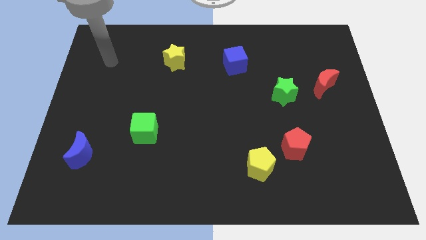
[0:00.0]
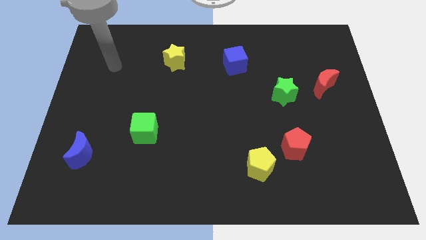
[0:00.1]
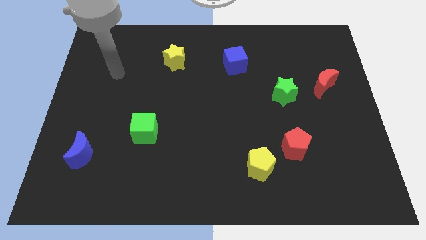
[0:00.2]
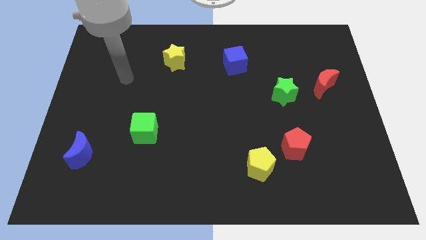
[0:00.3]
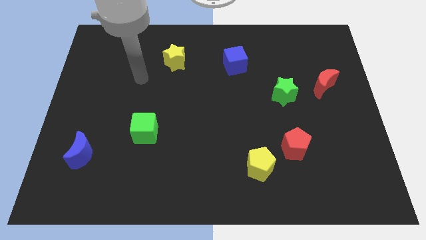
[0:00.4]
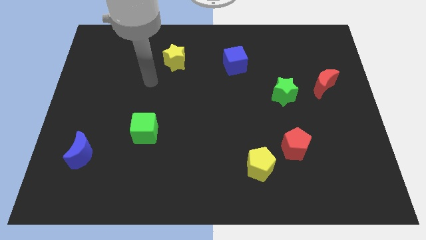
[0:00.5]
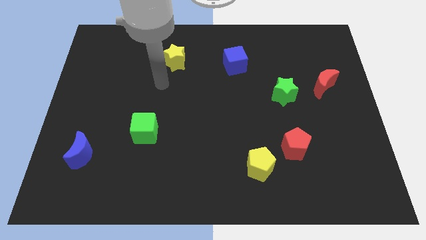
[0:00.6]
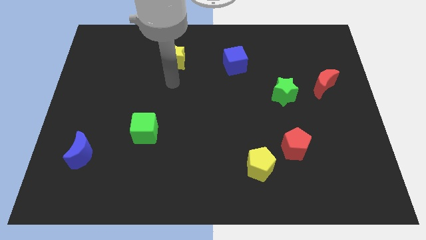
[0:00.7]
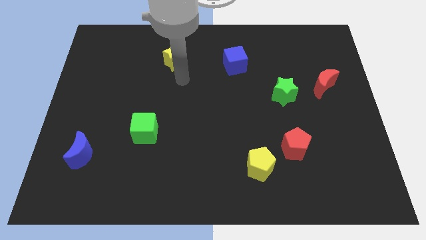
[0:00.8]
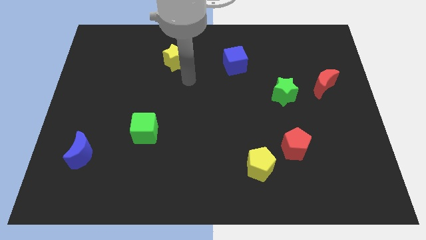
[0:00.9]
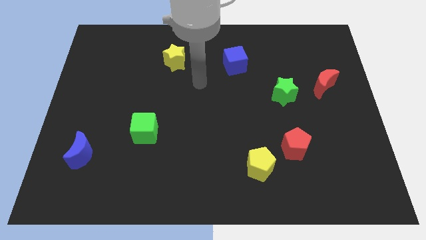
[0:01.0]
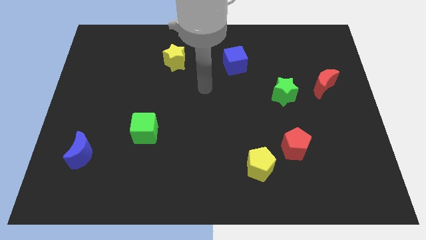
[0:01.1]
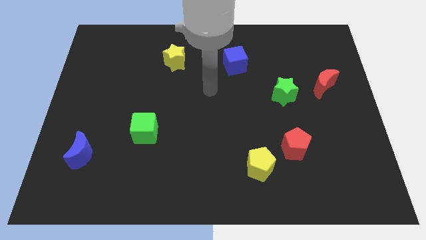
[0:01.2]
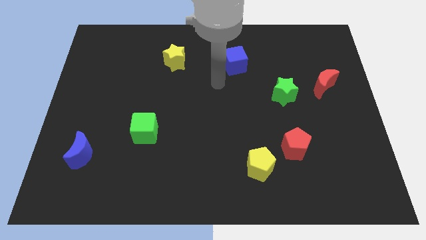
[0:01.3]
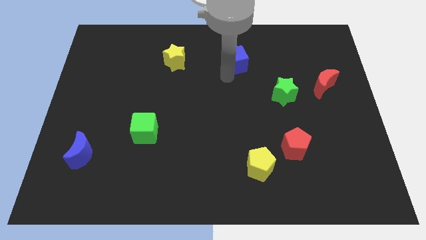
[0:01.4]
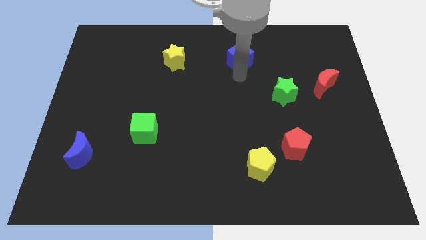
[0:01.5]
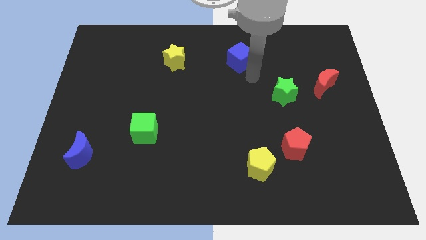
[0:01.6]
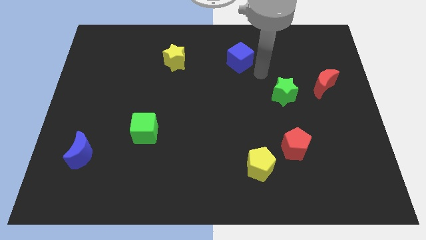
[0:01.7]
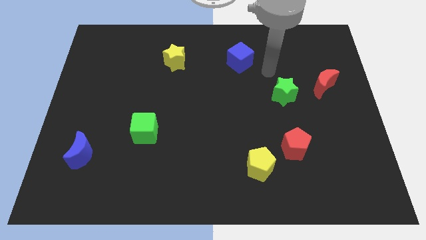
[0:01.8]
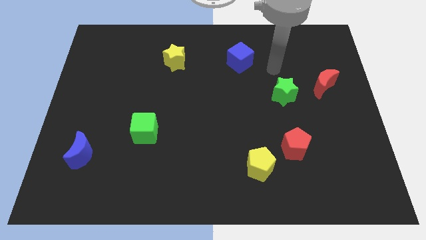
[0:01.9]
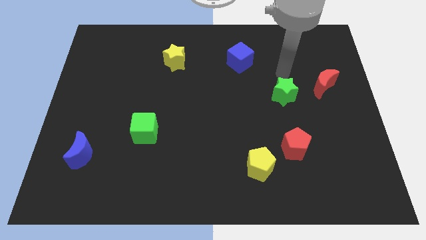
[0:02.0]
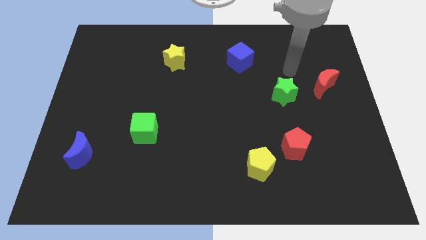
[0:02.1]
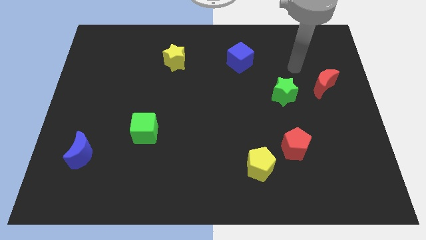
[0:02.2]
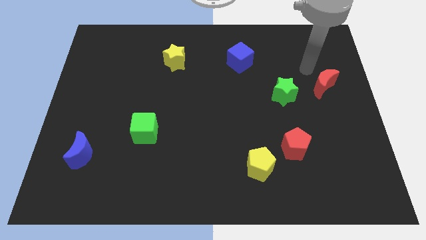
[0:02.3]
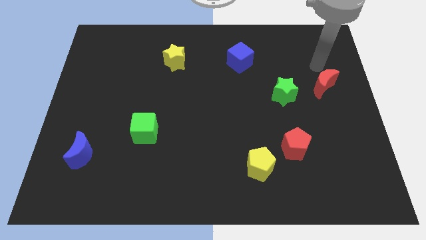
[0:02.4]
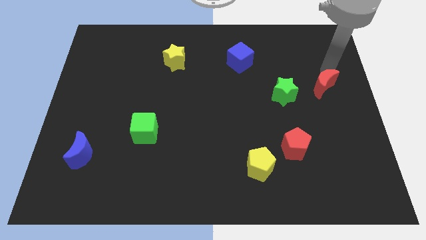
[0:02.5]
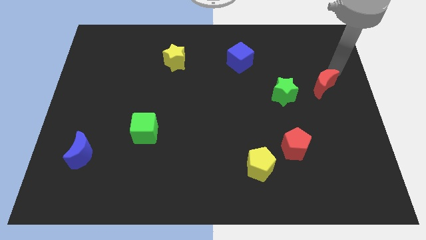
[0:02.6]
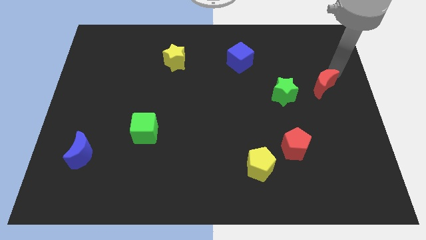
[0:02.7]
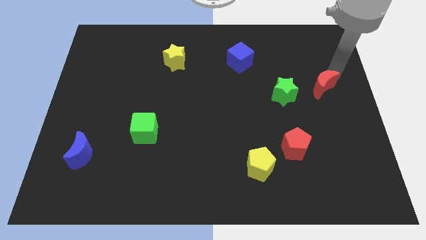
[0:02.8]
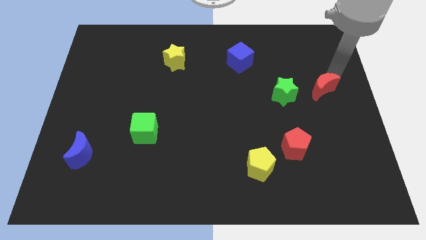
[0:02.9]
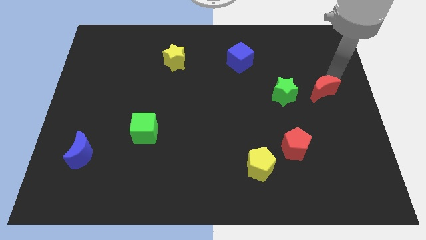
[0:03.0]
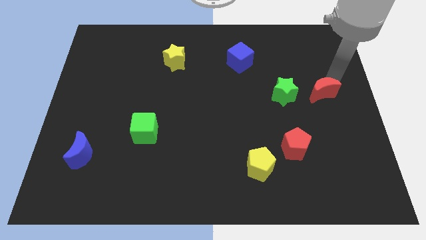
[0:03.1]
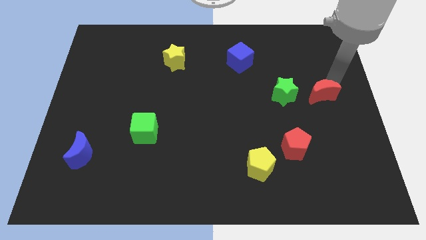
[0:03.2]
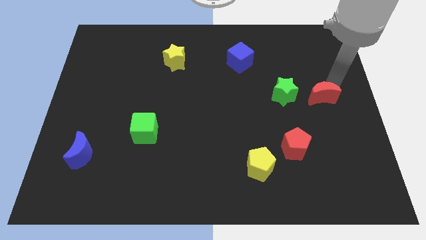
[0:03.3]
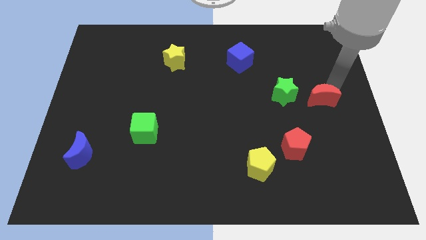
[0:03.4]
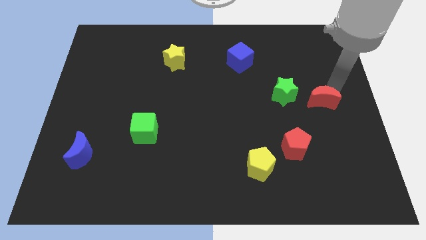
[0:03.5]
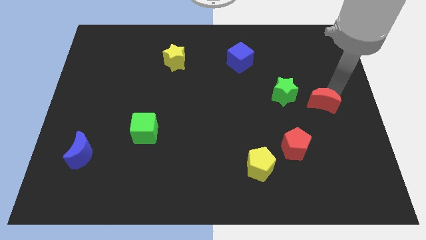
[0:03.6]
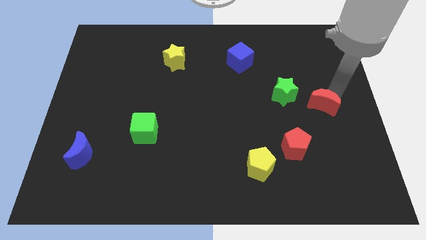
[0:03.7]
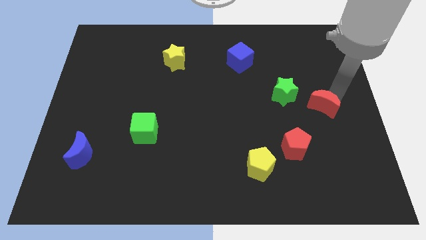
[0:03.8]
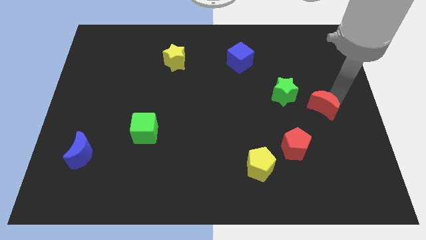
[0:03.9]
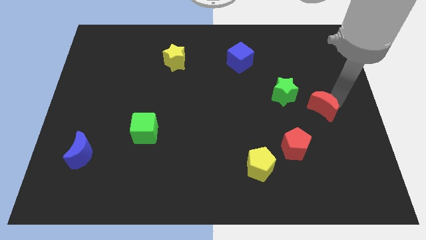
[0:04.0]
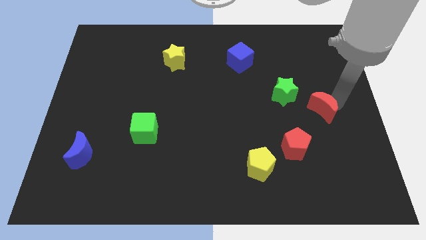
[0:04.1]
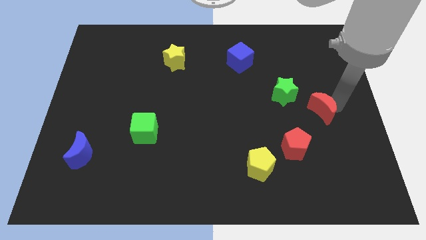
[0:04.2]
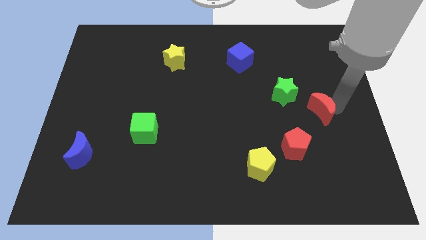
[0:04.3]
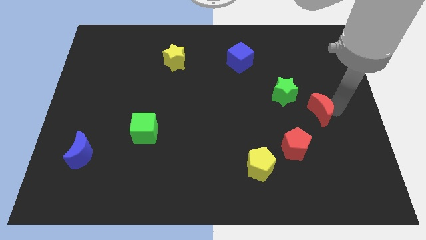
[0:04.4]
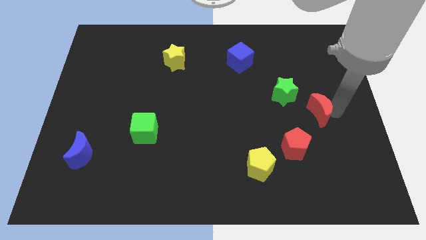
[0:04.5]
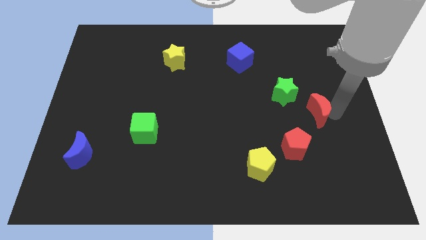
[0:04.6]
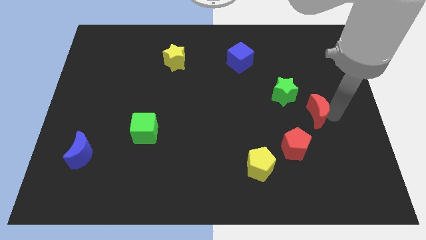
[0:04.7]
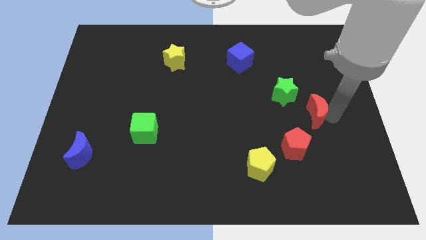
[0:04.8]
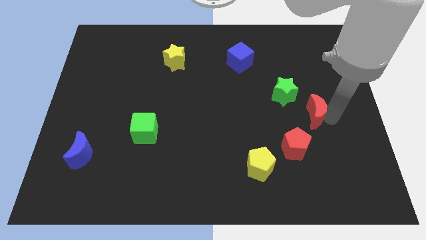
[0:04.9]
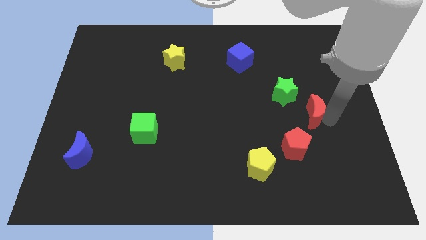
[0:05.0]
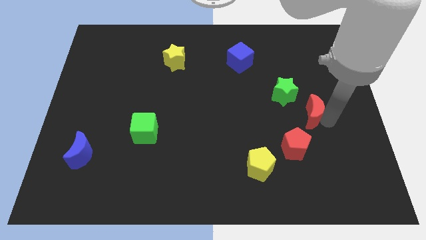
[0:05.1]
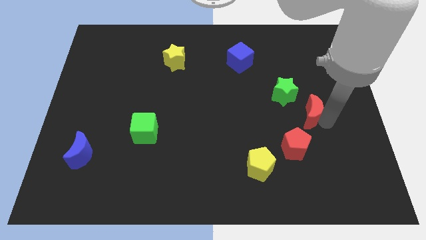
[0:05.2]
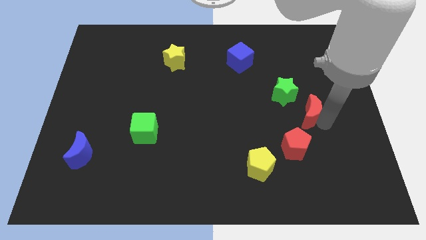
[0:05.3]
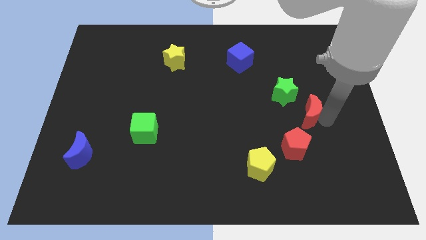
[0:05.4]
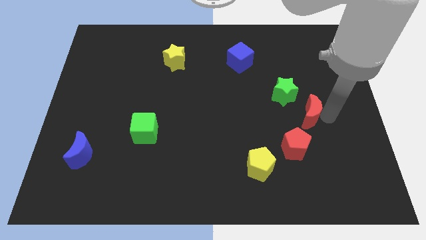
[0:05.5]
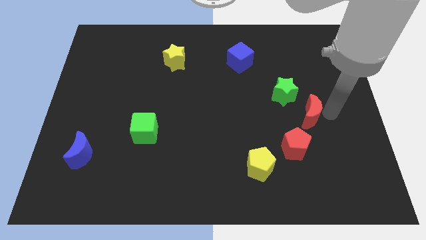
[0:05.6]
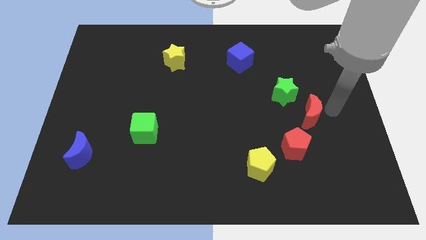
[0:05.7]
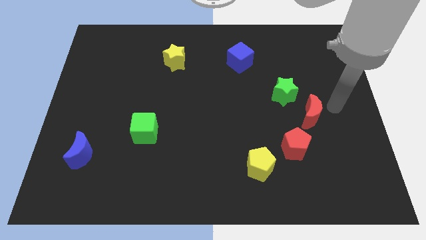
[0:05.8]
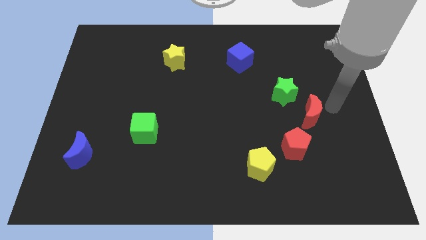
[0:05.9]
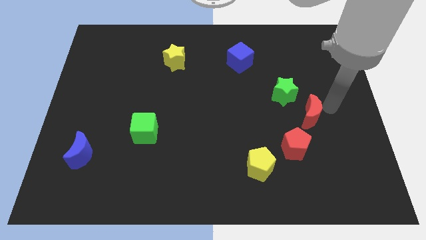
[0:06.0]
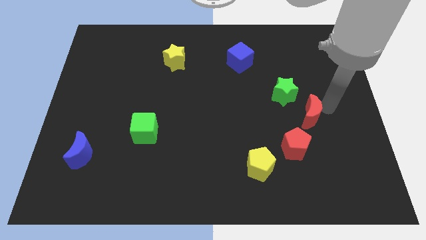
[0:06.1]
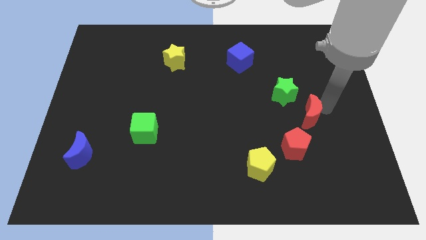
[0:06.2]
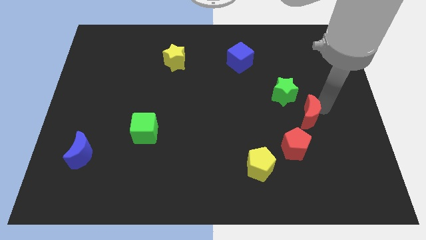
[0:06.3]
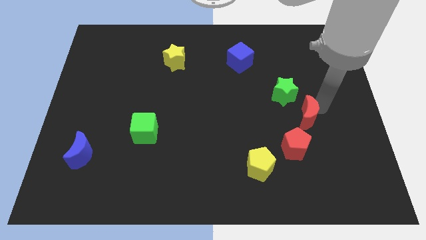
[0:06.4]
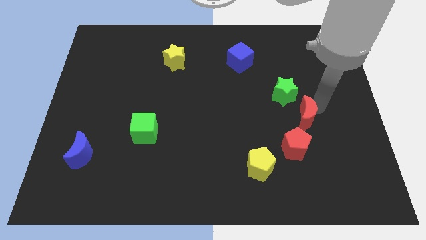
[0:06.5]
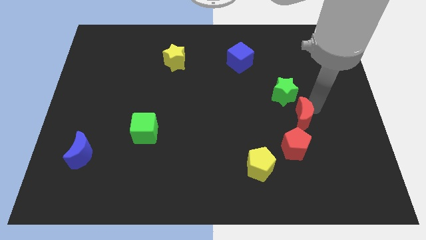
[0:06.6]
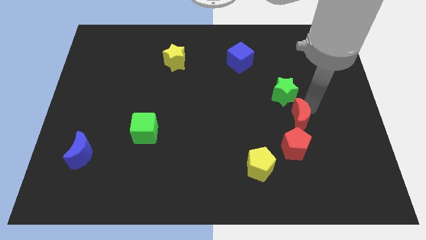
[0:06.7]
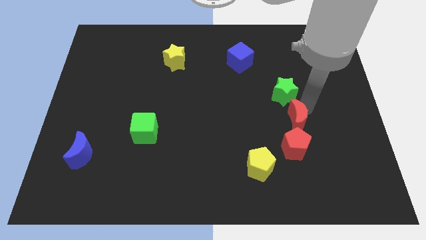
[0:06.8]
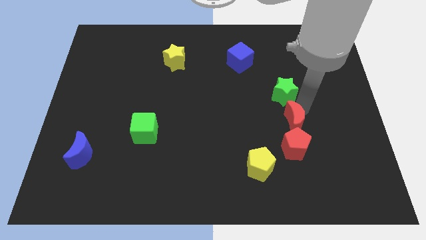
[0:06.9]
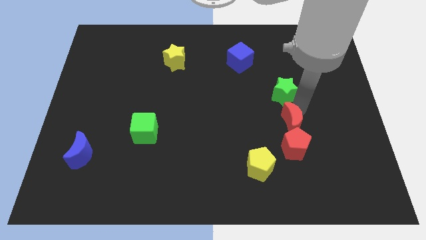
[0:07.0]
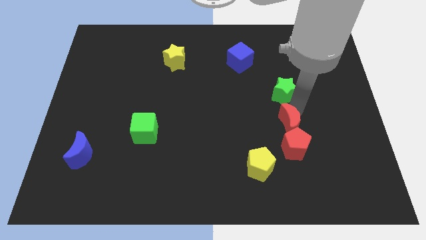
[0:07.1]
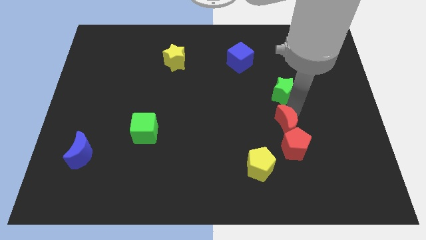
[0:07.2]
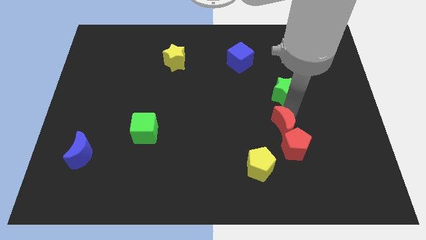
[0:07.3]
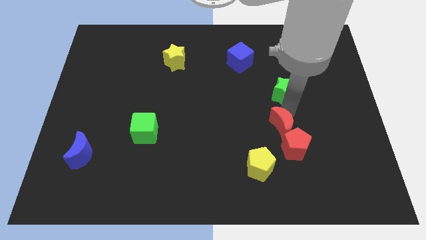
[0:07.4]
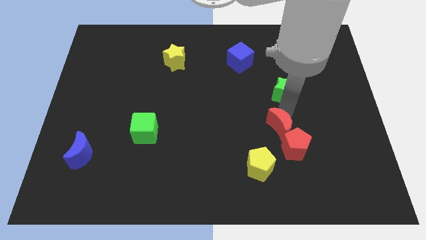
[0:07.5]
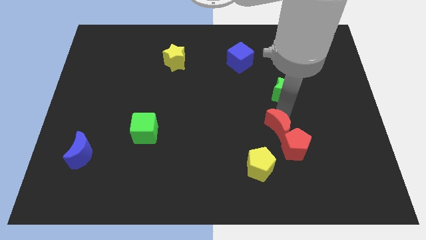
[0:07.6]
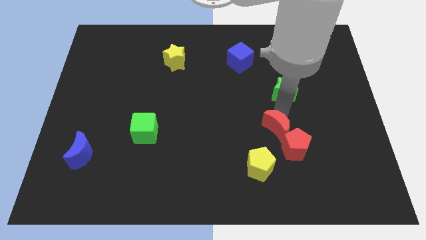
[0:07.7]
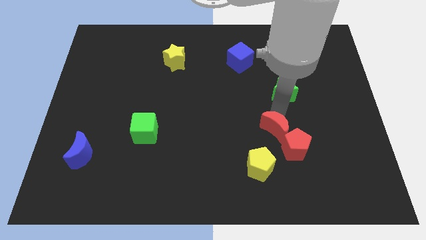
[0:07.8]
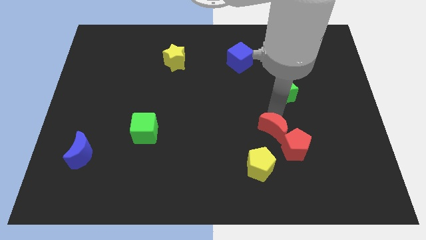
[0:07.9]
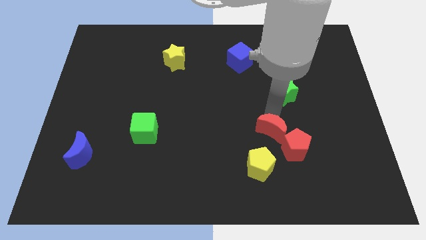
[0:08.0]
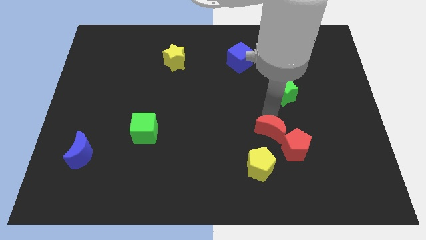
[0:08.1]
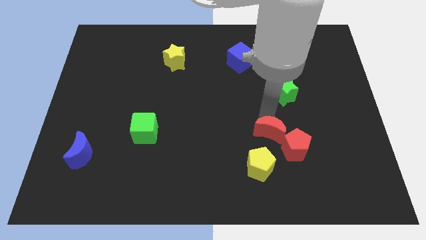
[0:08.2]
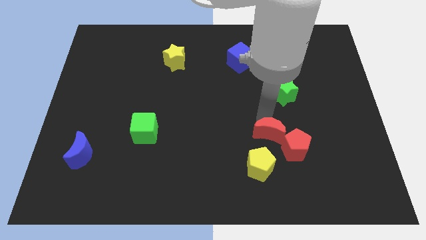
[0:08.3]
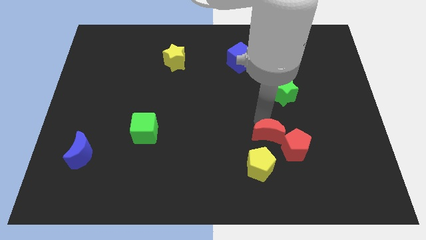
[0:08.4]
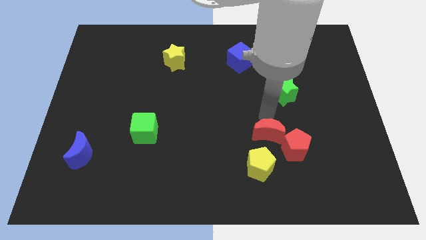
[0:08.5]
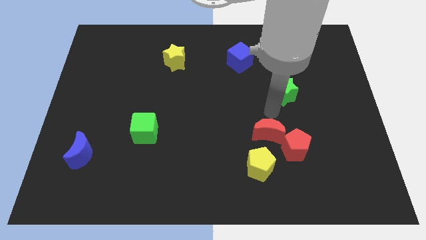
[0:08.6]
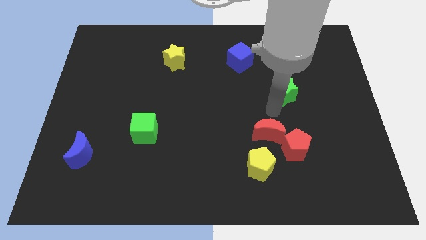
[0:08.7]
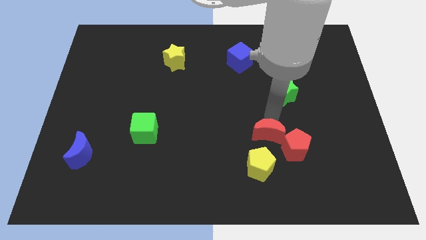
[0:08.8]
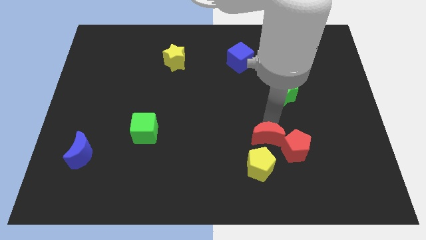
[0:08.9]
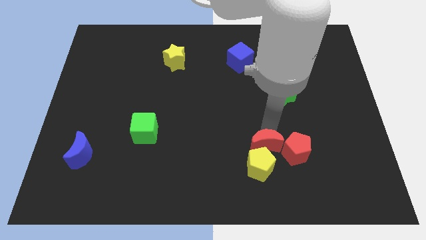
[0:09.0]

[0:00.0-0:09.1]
push the red moon towards the yellow pentagon
